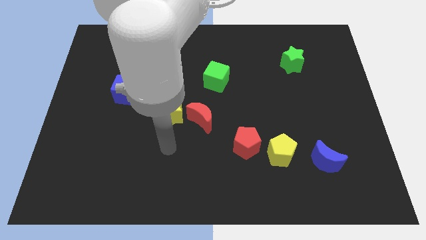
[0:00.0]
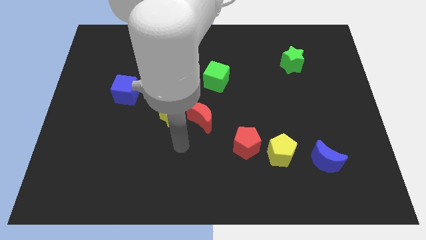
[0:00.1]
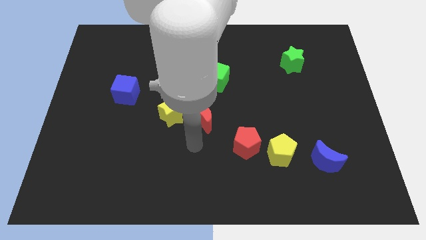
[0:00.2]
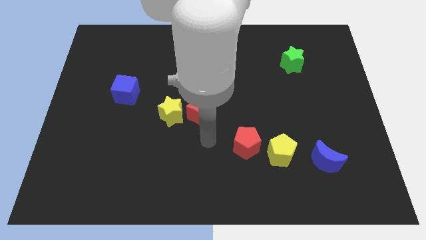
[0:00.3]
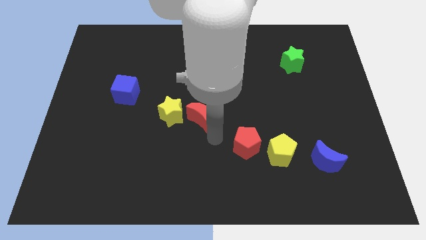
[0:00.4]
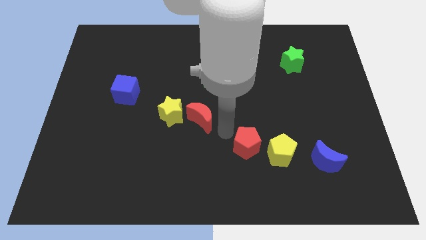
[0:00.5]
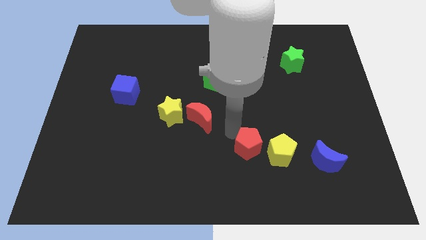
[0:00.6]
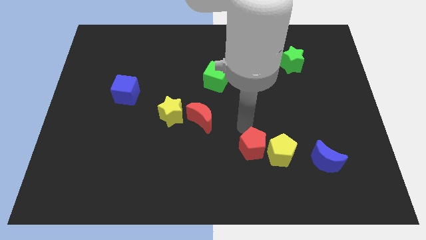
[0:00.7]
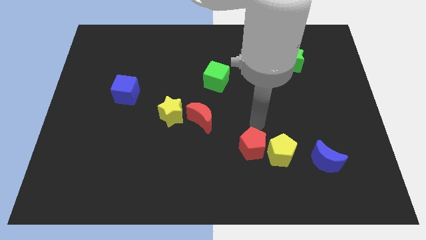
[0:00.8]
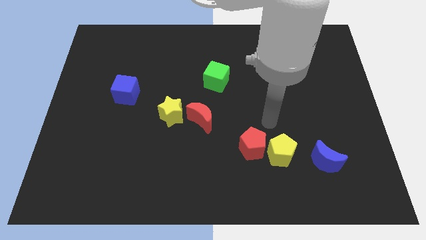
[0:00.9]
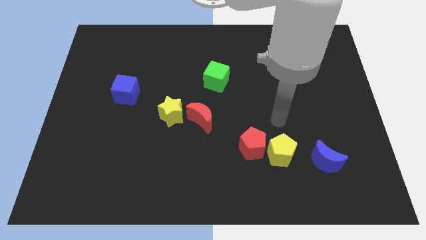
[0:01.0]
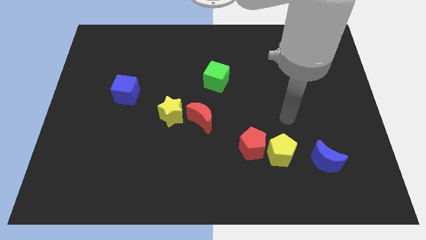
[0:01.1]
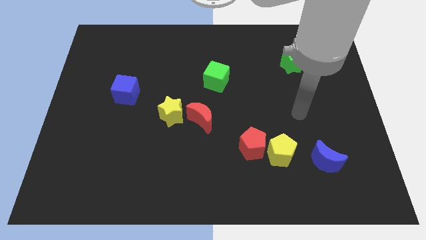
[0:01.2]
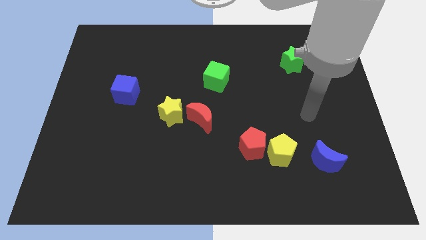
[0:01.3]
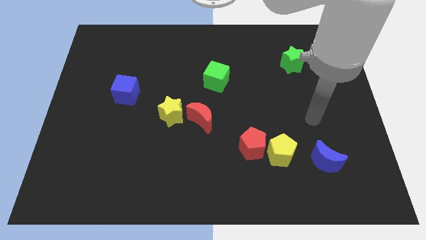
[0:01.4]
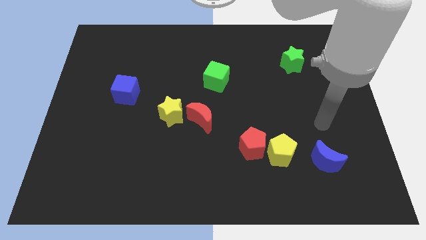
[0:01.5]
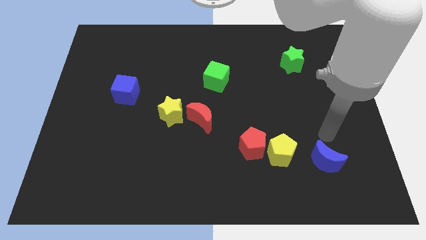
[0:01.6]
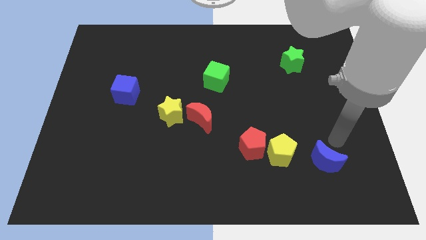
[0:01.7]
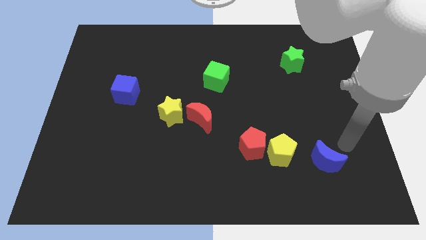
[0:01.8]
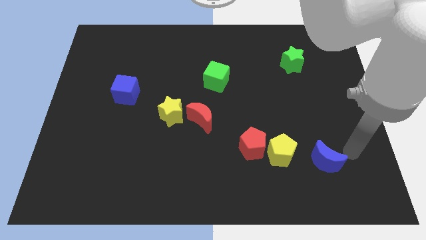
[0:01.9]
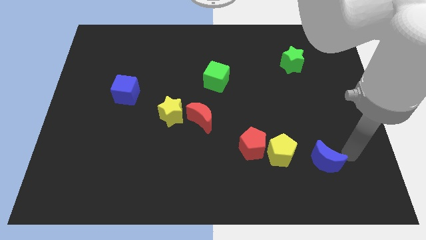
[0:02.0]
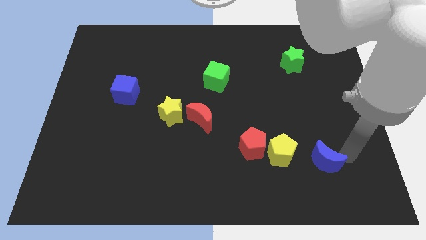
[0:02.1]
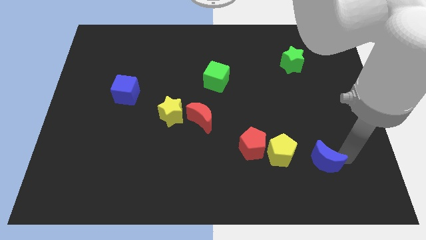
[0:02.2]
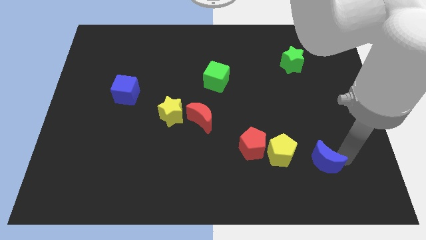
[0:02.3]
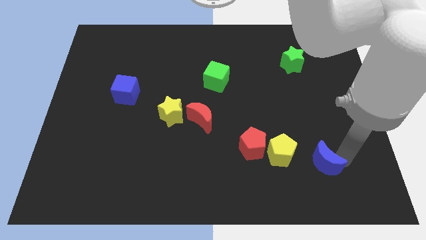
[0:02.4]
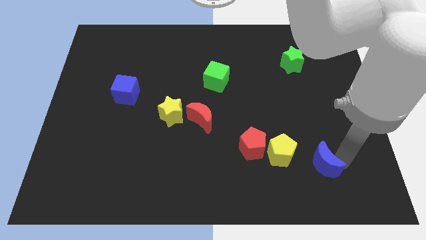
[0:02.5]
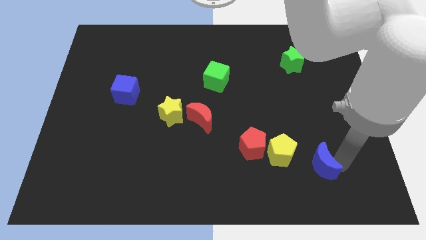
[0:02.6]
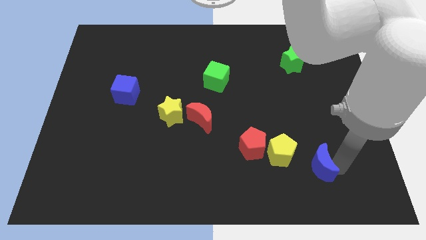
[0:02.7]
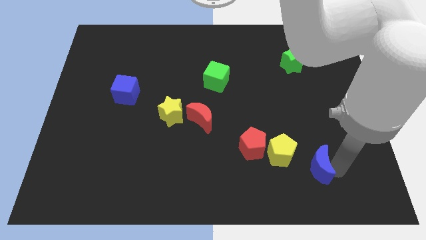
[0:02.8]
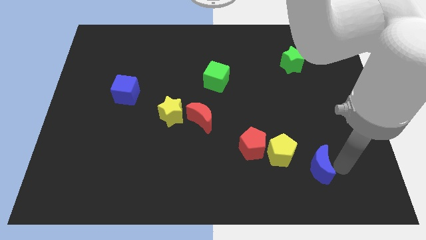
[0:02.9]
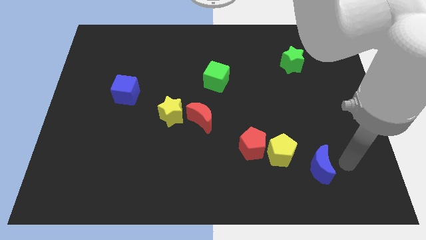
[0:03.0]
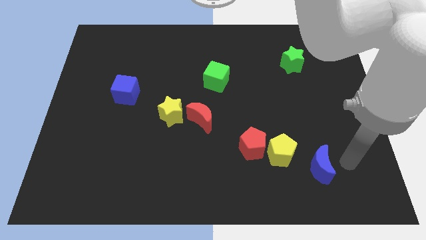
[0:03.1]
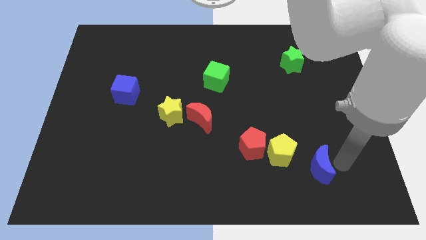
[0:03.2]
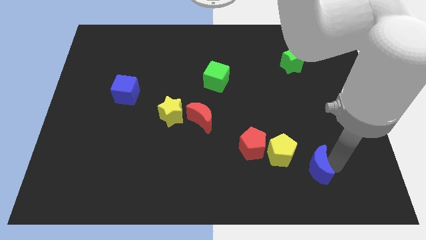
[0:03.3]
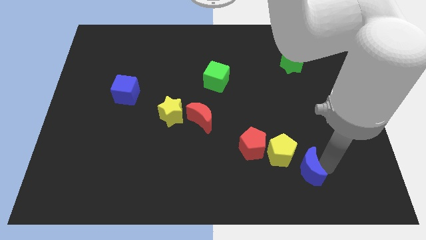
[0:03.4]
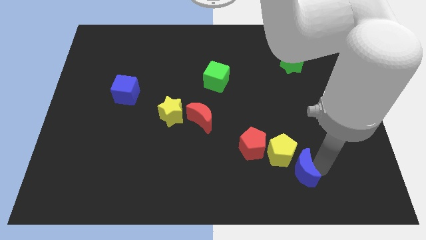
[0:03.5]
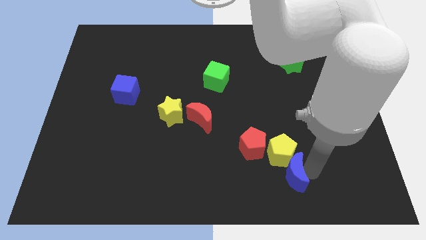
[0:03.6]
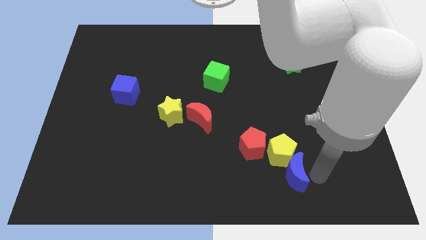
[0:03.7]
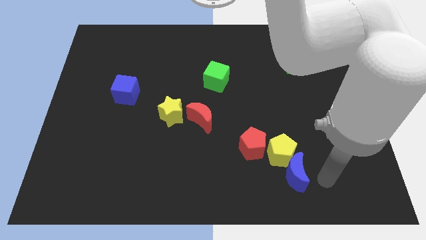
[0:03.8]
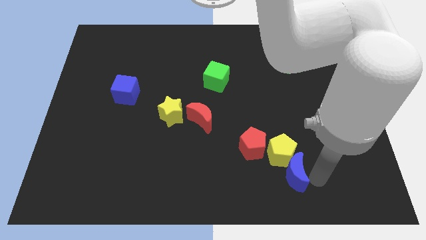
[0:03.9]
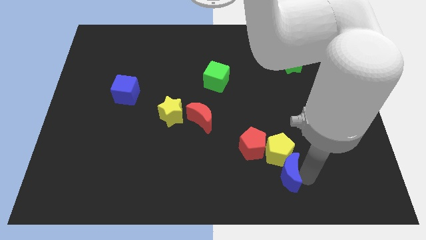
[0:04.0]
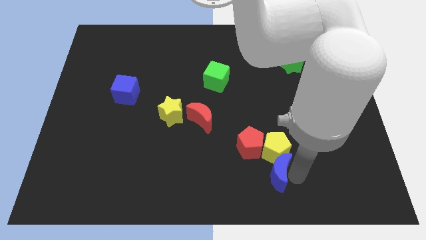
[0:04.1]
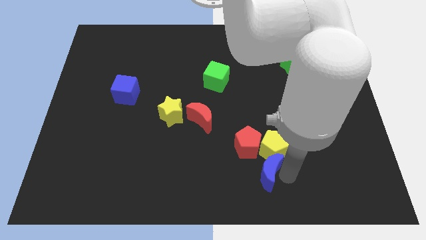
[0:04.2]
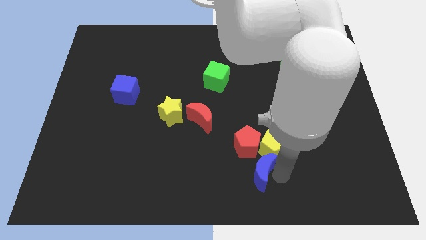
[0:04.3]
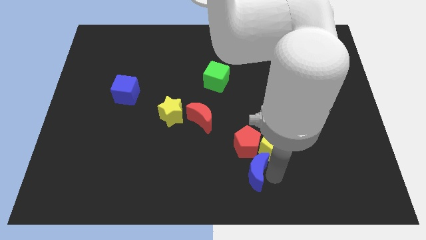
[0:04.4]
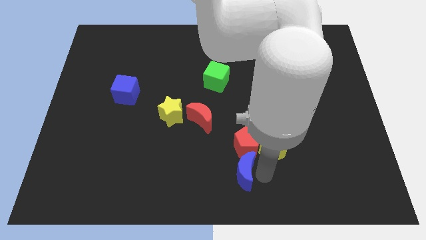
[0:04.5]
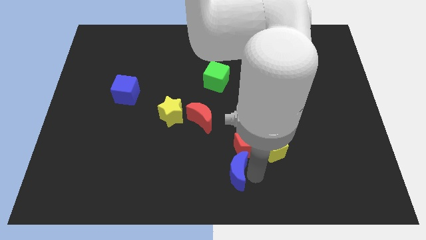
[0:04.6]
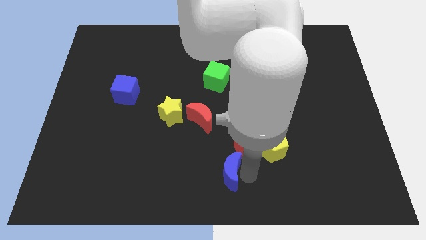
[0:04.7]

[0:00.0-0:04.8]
push the blue moon to the left

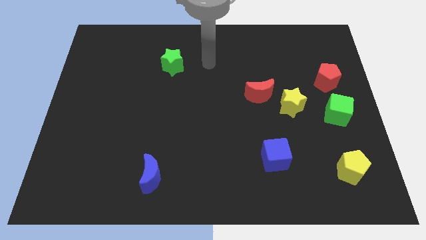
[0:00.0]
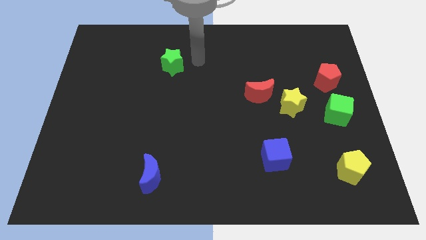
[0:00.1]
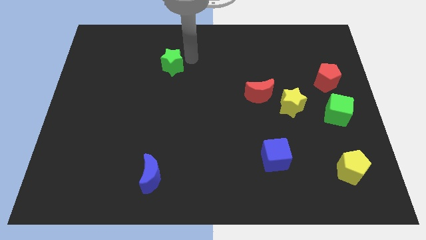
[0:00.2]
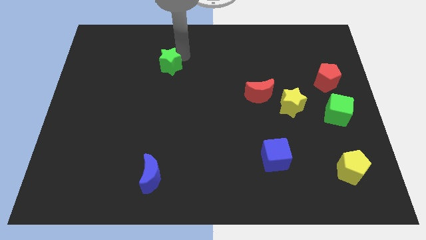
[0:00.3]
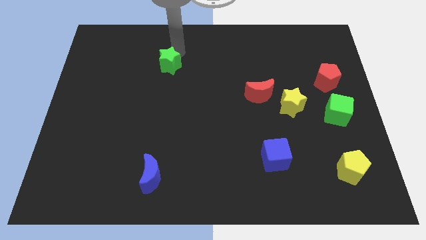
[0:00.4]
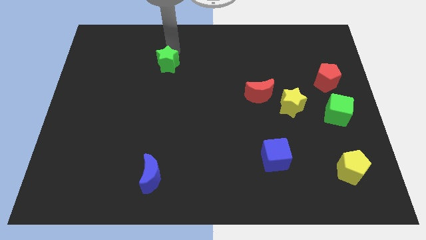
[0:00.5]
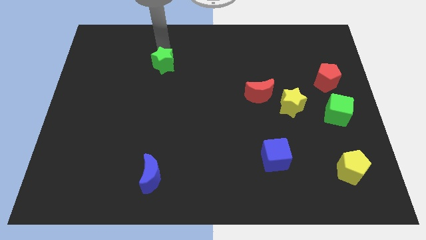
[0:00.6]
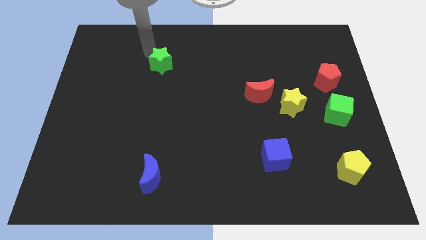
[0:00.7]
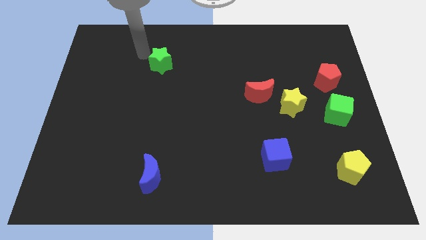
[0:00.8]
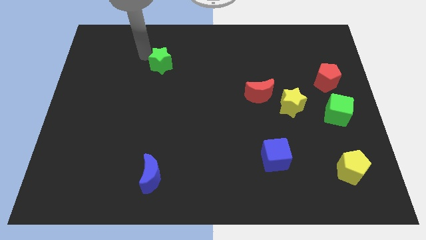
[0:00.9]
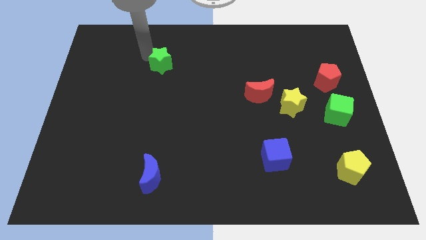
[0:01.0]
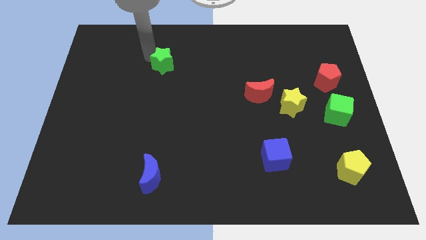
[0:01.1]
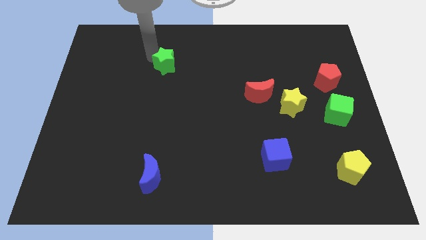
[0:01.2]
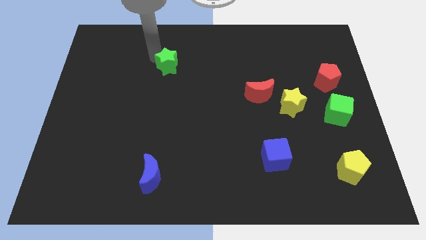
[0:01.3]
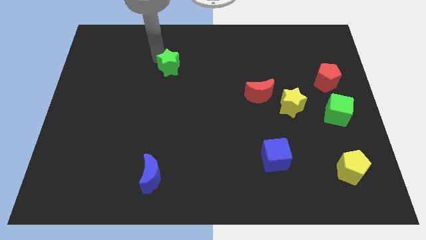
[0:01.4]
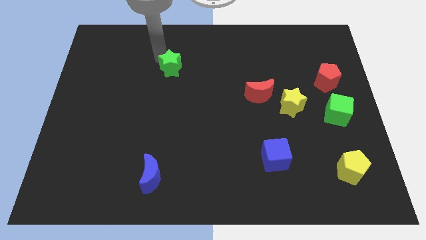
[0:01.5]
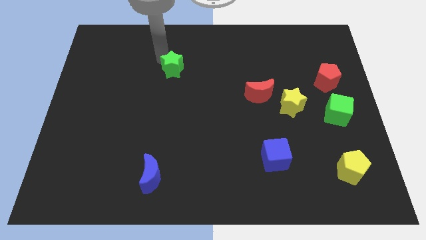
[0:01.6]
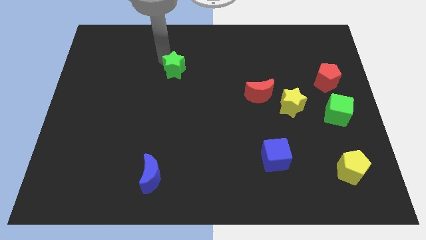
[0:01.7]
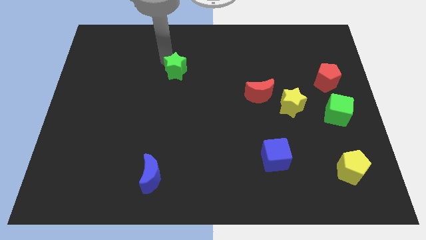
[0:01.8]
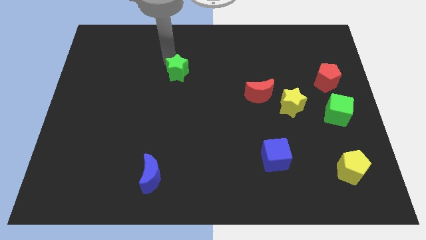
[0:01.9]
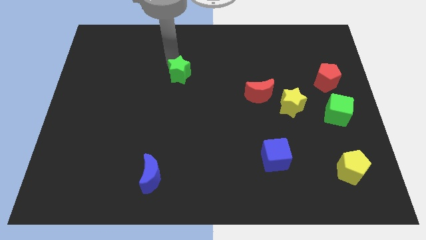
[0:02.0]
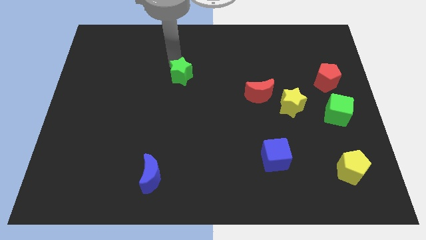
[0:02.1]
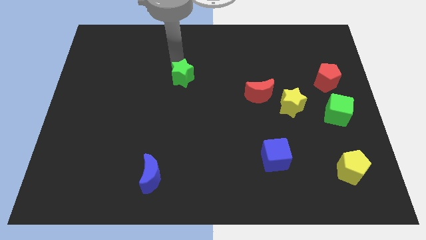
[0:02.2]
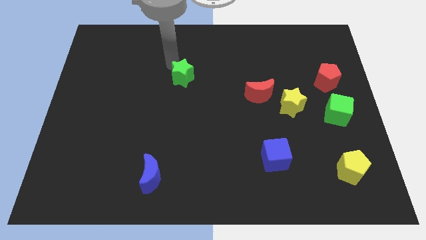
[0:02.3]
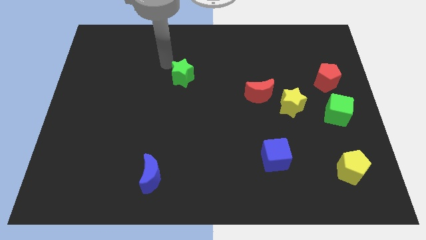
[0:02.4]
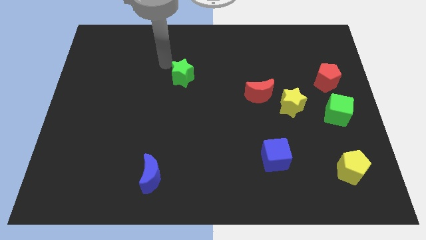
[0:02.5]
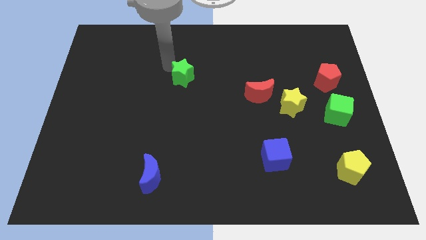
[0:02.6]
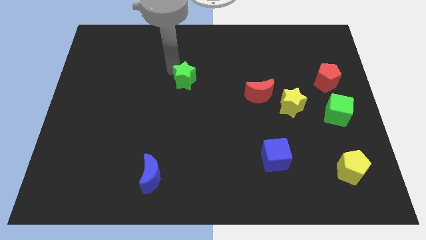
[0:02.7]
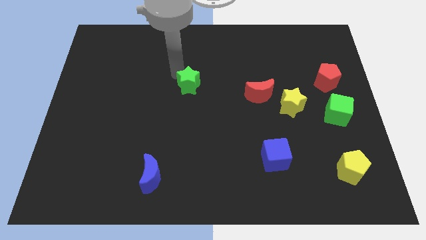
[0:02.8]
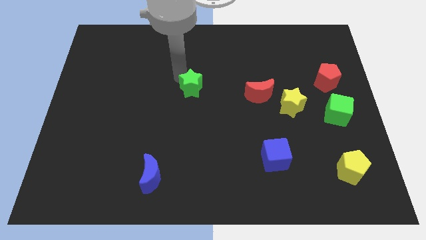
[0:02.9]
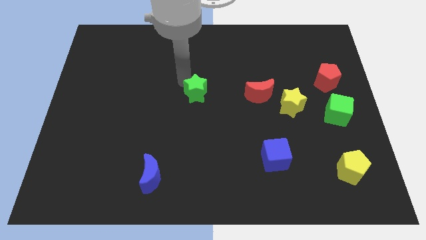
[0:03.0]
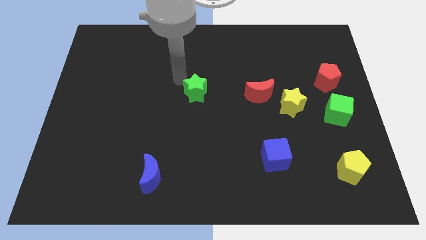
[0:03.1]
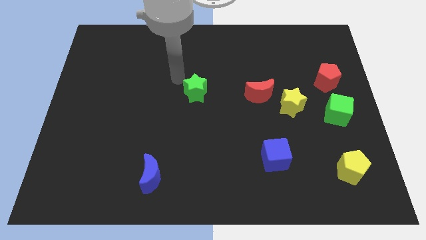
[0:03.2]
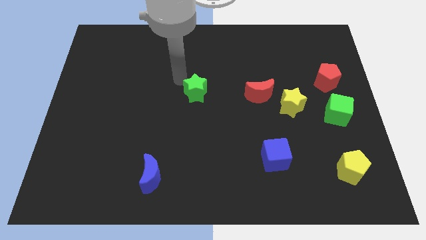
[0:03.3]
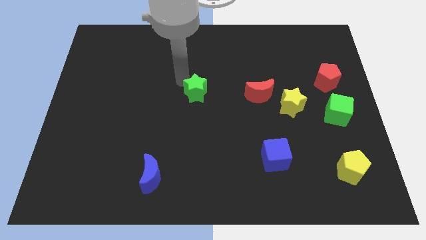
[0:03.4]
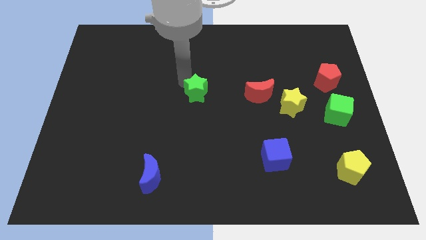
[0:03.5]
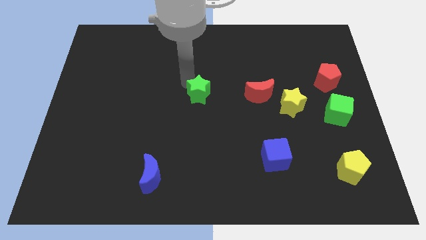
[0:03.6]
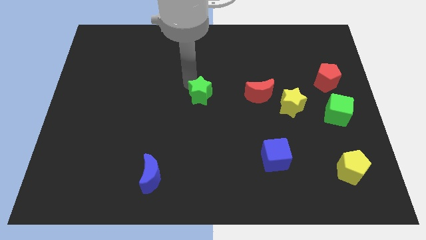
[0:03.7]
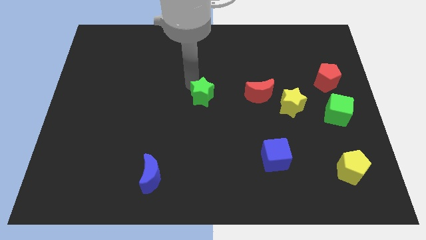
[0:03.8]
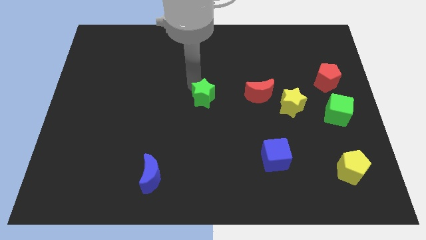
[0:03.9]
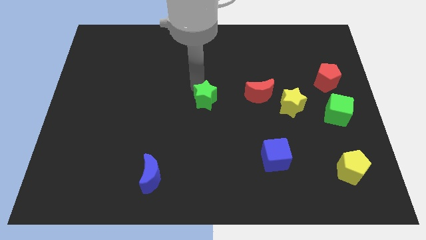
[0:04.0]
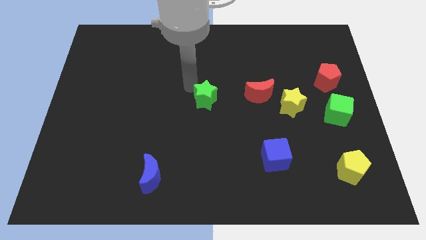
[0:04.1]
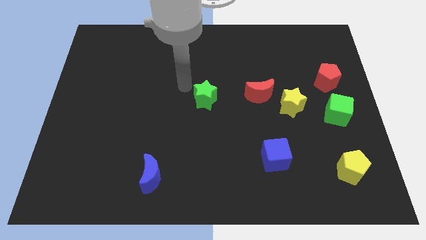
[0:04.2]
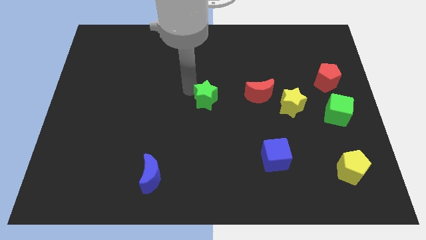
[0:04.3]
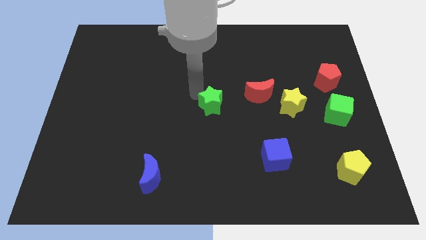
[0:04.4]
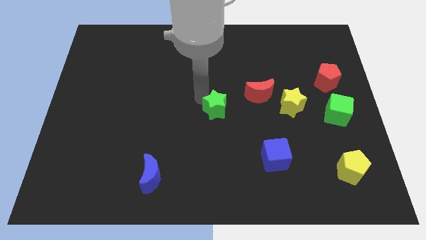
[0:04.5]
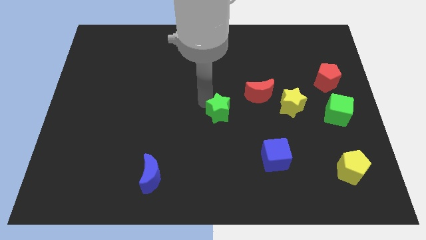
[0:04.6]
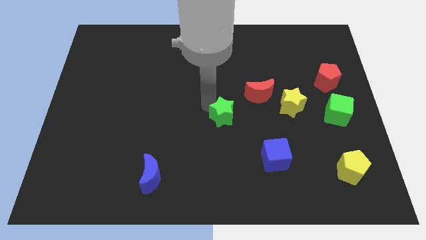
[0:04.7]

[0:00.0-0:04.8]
move the green star down and to the right
